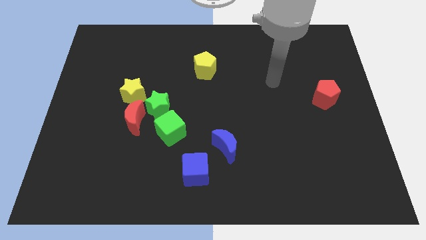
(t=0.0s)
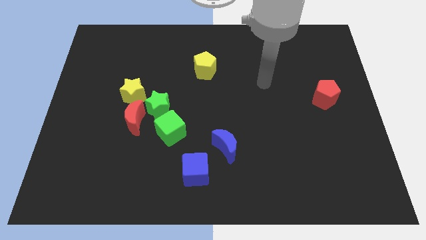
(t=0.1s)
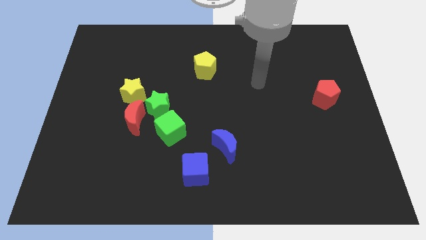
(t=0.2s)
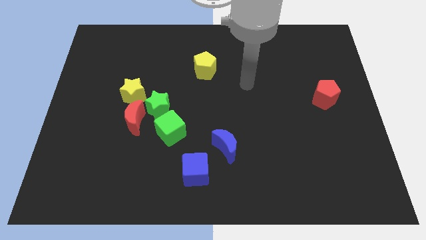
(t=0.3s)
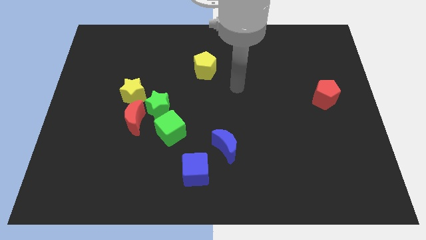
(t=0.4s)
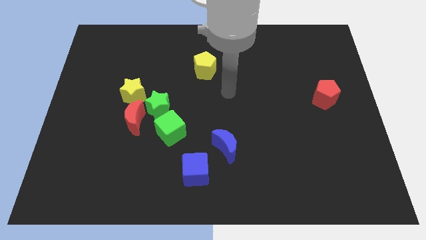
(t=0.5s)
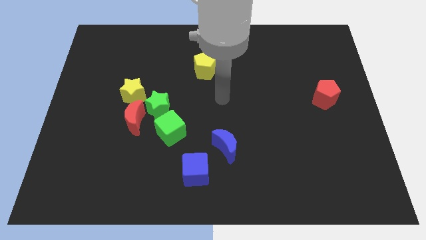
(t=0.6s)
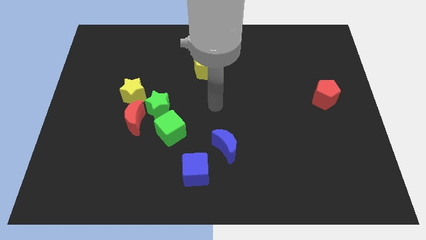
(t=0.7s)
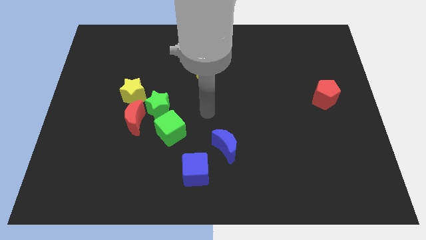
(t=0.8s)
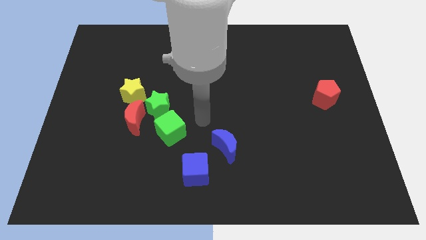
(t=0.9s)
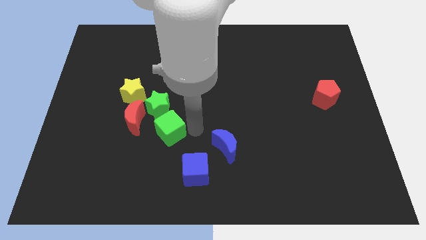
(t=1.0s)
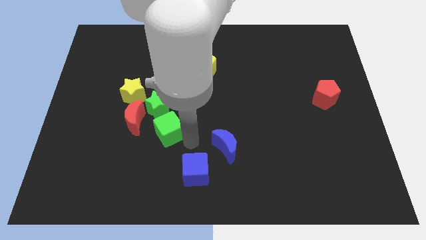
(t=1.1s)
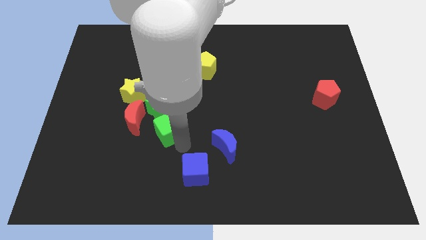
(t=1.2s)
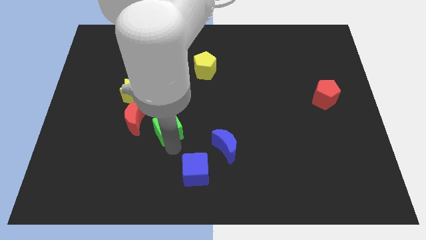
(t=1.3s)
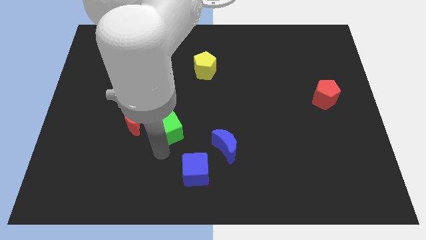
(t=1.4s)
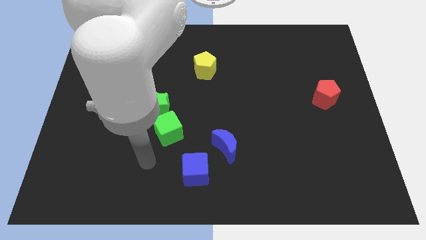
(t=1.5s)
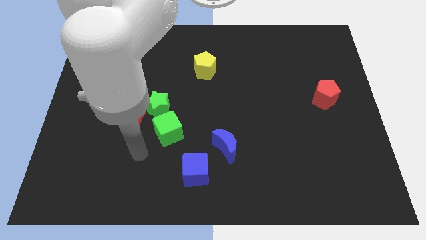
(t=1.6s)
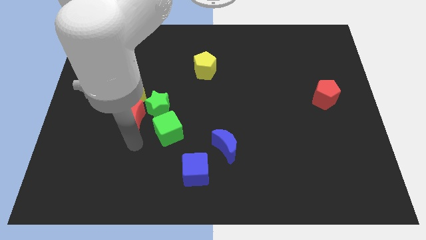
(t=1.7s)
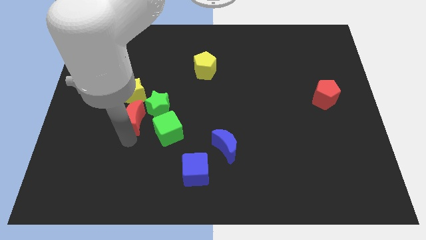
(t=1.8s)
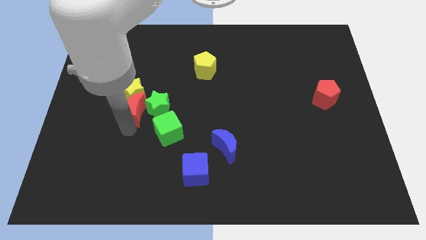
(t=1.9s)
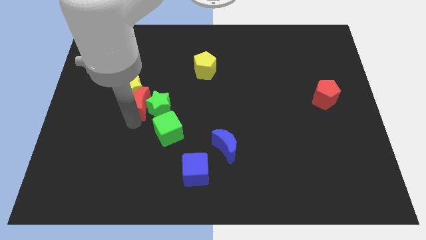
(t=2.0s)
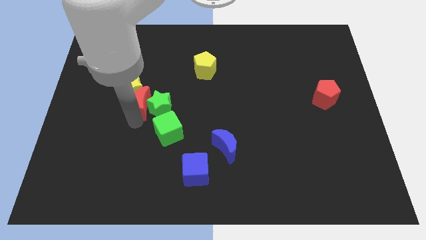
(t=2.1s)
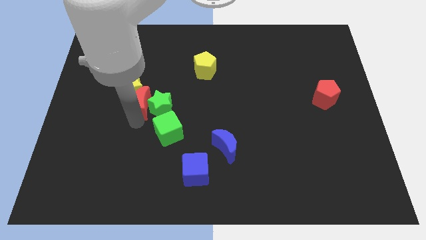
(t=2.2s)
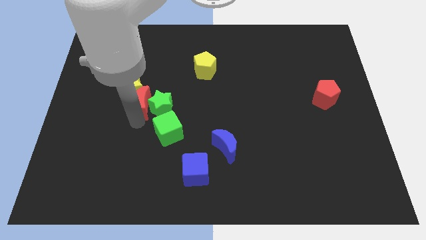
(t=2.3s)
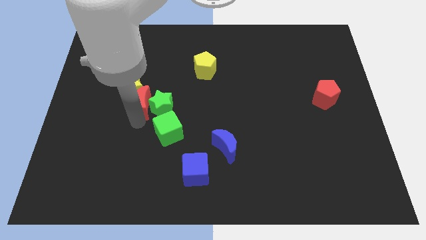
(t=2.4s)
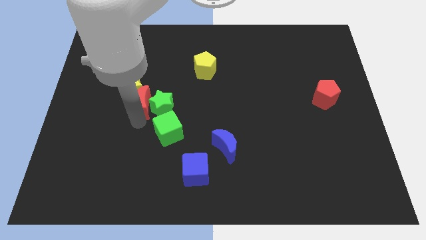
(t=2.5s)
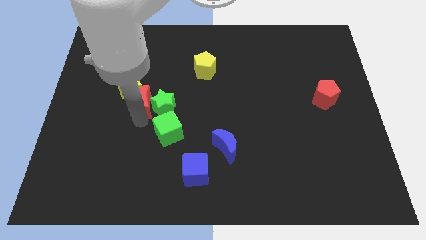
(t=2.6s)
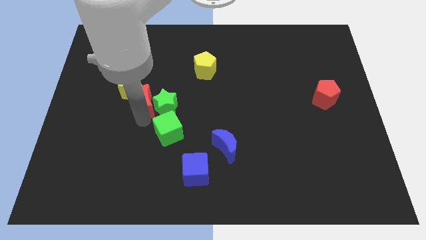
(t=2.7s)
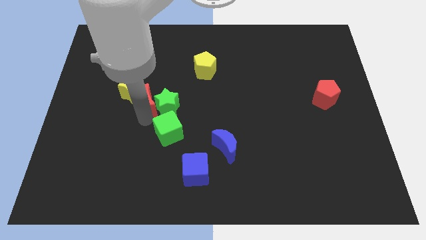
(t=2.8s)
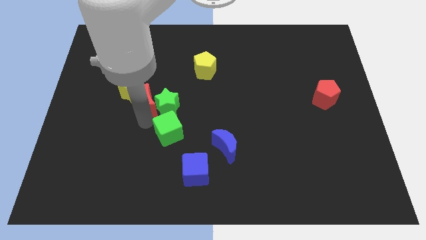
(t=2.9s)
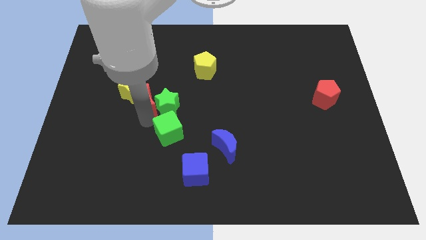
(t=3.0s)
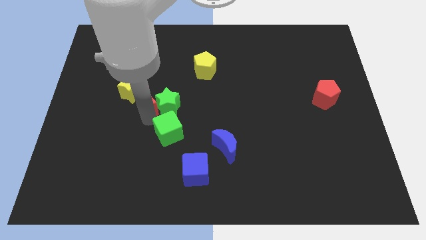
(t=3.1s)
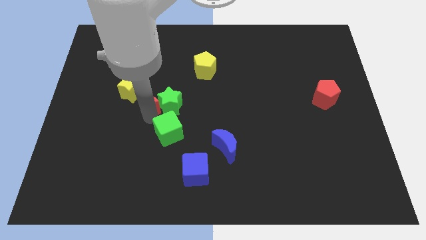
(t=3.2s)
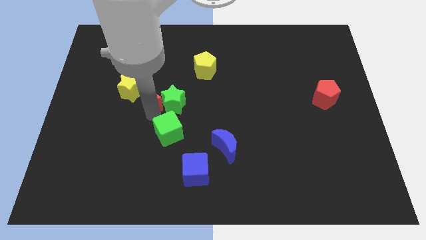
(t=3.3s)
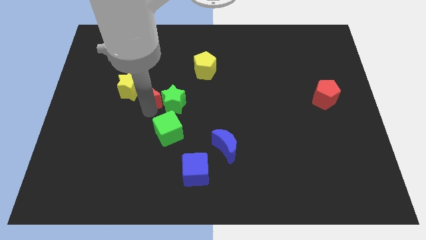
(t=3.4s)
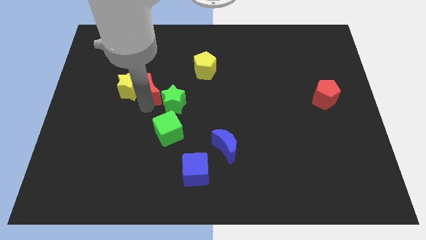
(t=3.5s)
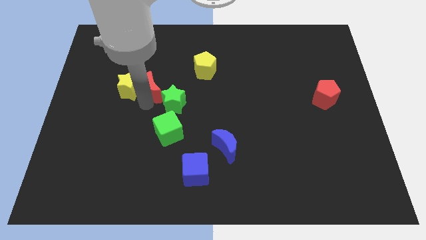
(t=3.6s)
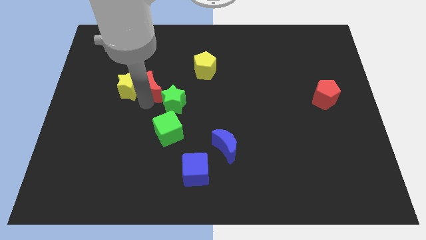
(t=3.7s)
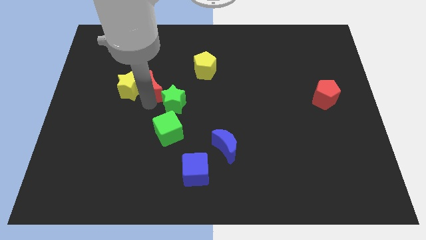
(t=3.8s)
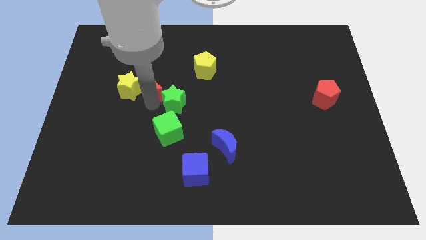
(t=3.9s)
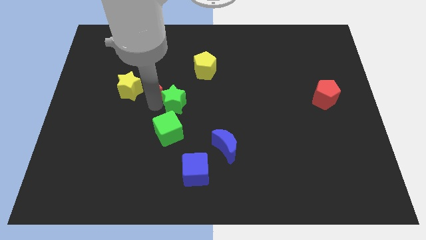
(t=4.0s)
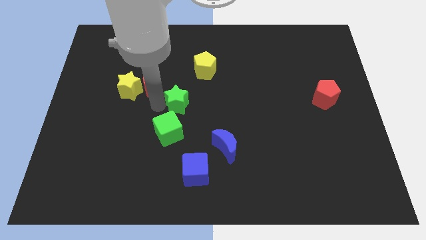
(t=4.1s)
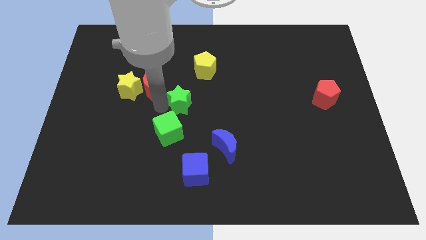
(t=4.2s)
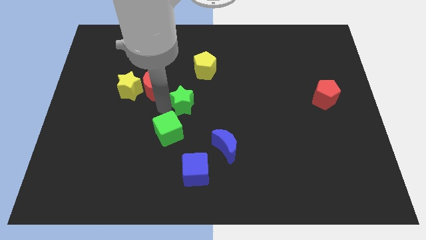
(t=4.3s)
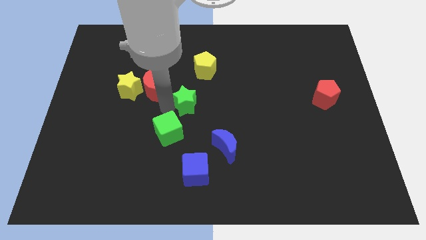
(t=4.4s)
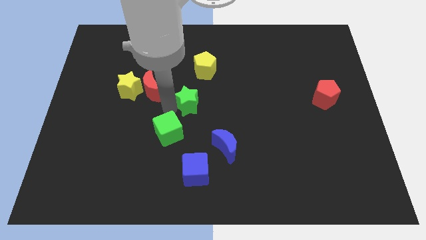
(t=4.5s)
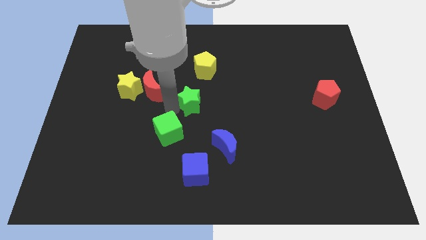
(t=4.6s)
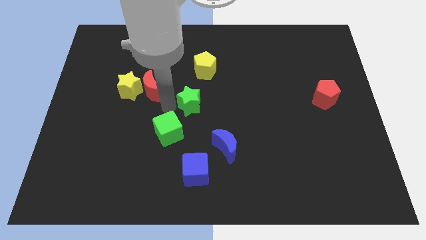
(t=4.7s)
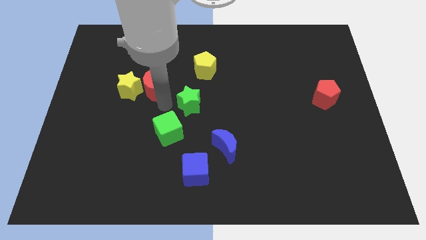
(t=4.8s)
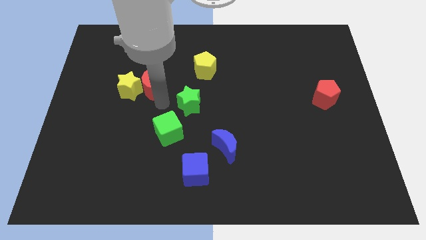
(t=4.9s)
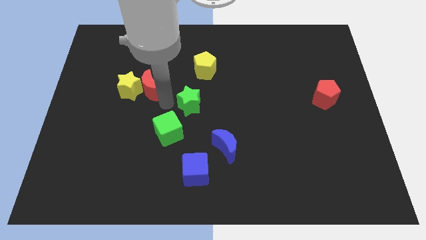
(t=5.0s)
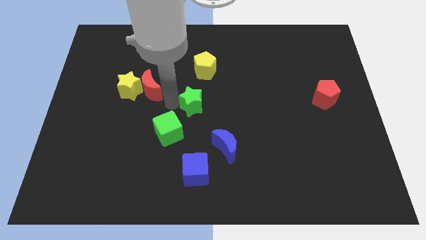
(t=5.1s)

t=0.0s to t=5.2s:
move the green star away from the group

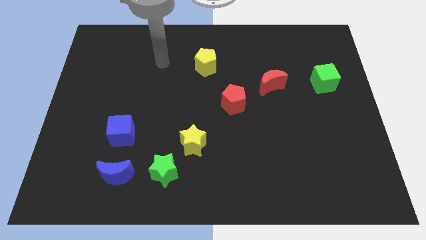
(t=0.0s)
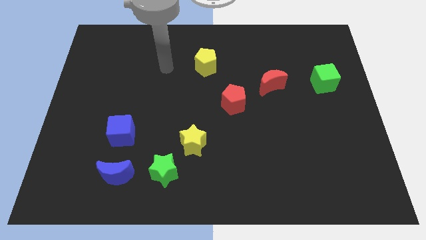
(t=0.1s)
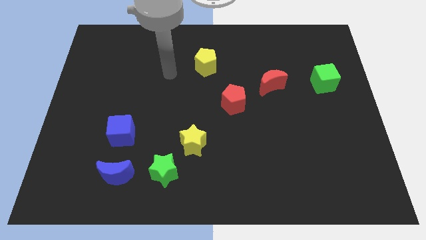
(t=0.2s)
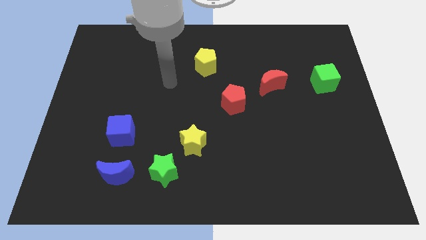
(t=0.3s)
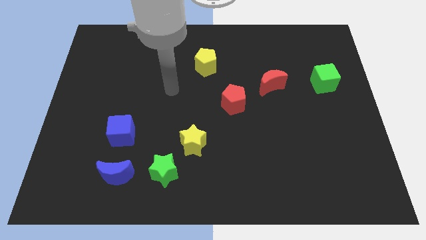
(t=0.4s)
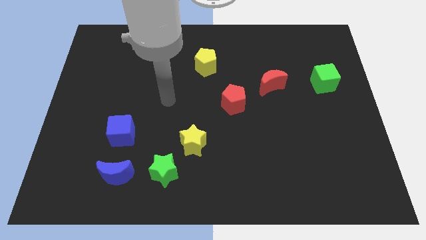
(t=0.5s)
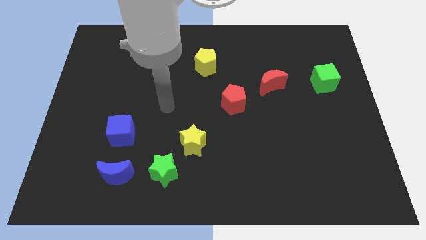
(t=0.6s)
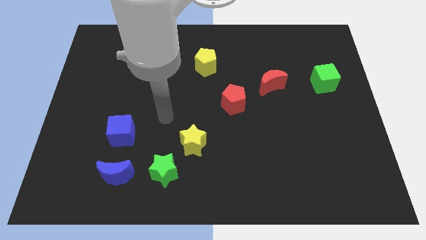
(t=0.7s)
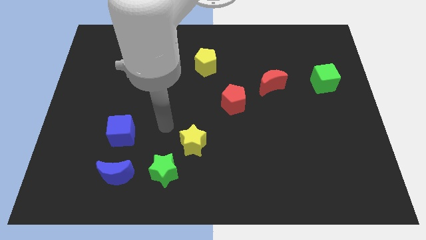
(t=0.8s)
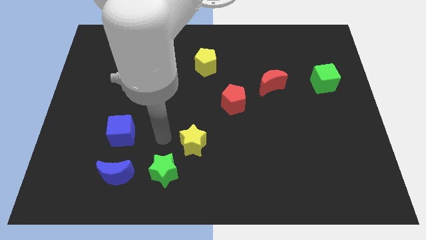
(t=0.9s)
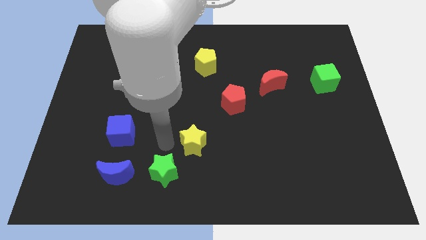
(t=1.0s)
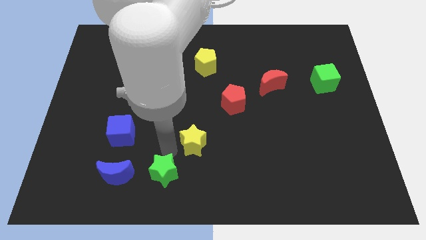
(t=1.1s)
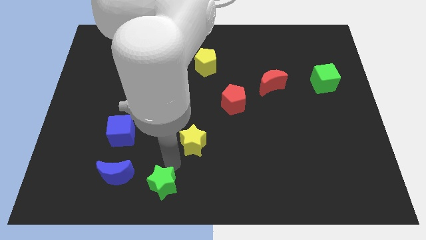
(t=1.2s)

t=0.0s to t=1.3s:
separate the yellow star from the green star

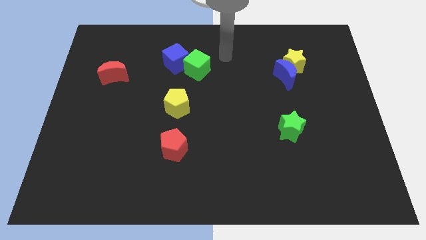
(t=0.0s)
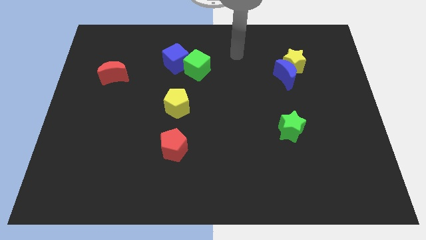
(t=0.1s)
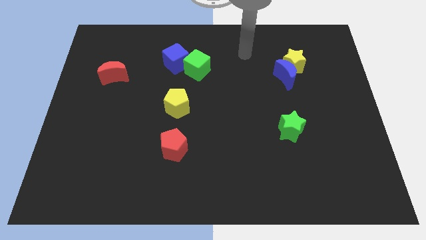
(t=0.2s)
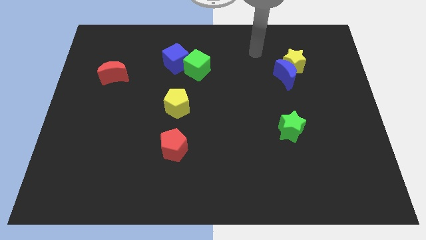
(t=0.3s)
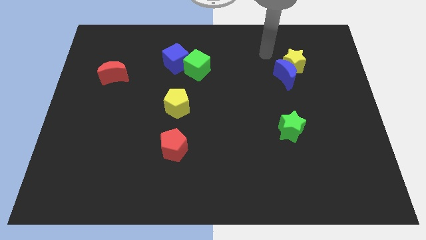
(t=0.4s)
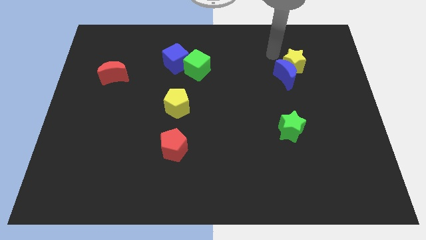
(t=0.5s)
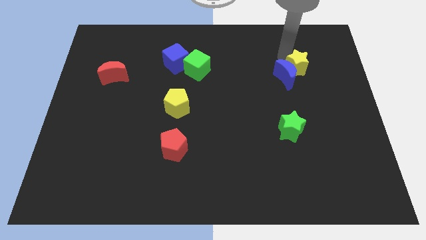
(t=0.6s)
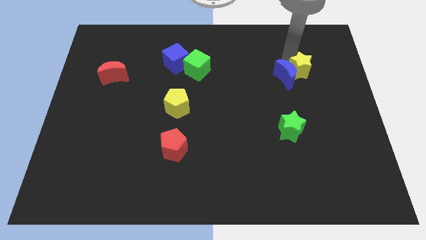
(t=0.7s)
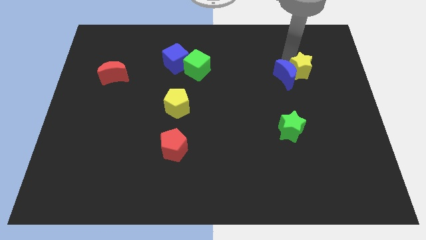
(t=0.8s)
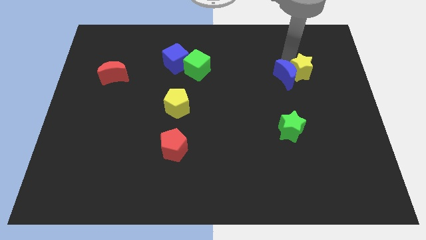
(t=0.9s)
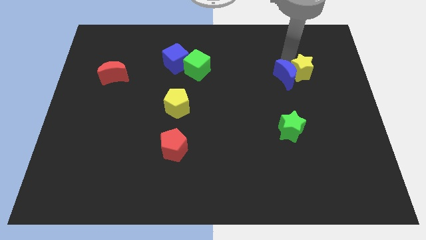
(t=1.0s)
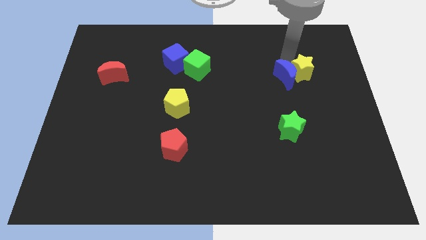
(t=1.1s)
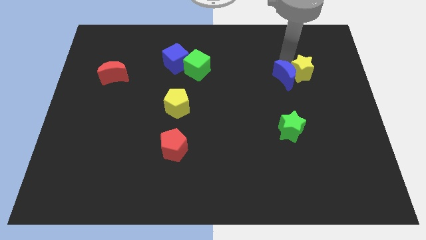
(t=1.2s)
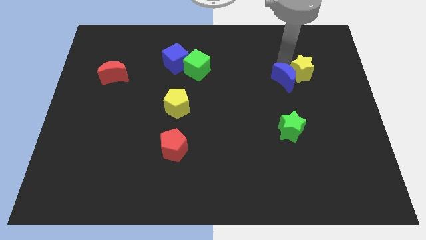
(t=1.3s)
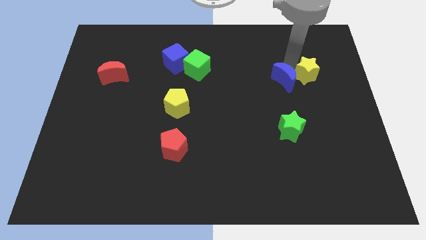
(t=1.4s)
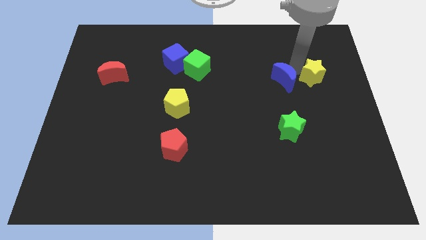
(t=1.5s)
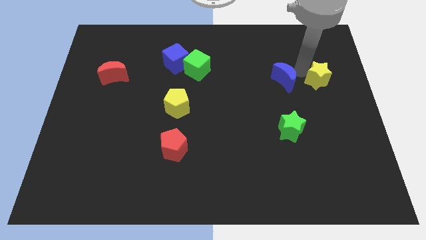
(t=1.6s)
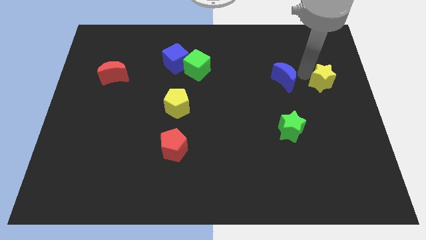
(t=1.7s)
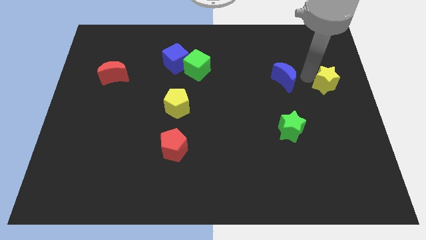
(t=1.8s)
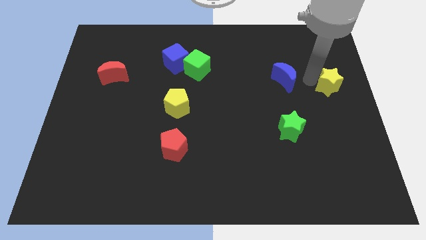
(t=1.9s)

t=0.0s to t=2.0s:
separate the blue moon from the yellow star

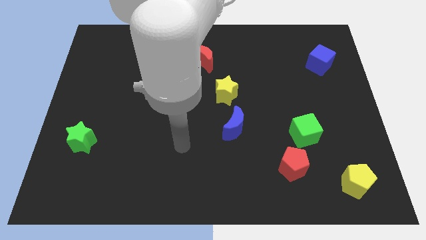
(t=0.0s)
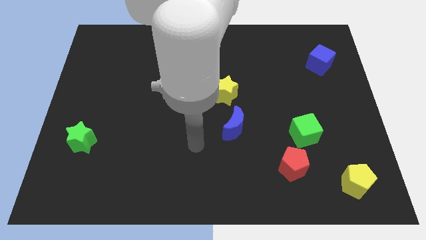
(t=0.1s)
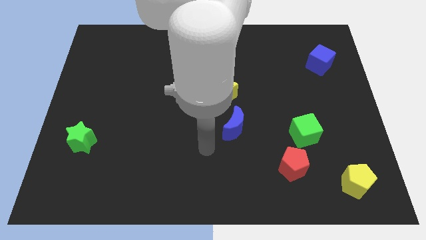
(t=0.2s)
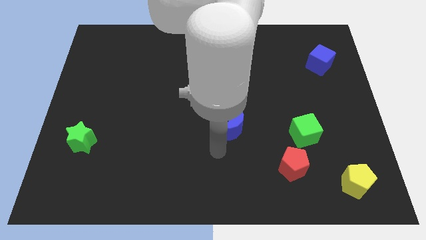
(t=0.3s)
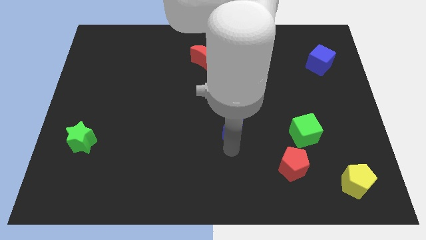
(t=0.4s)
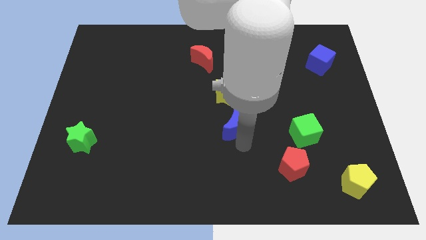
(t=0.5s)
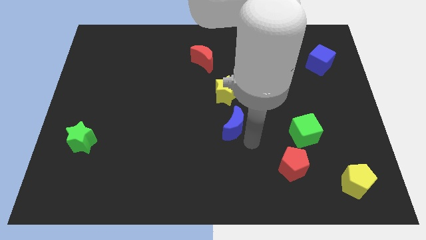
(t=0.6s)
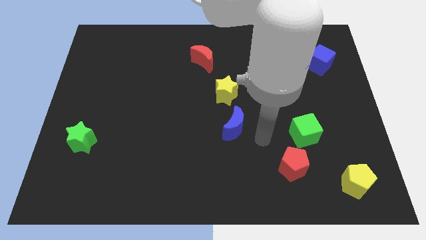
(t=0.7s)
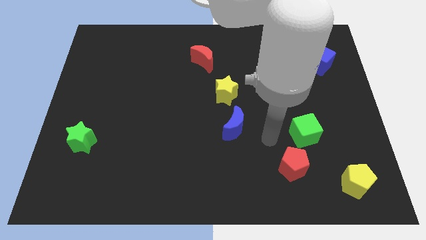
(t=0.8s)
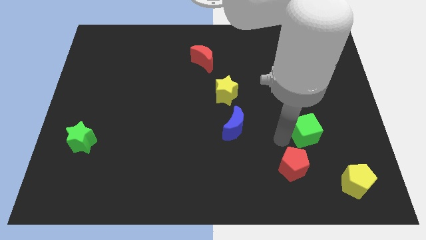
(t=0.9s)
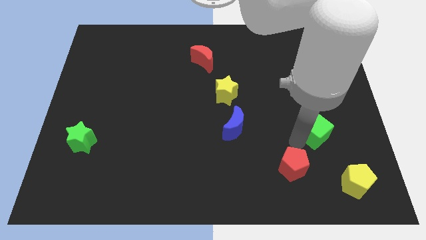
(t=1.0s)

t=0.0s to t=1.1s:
pull the red pentagon apart from the green cube
